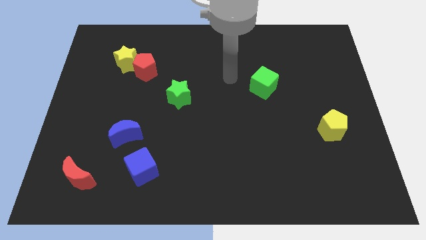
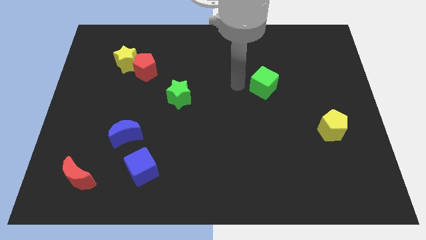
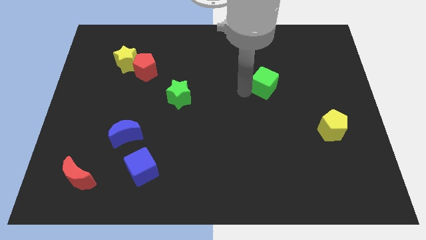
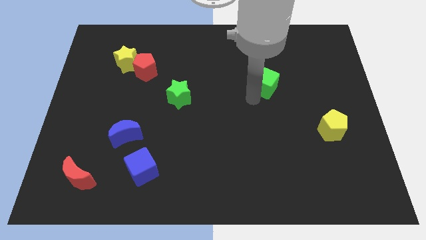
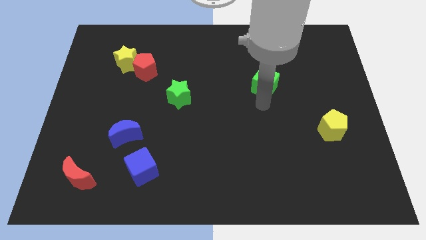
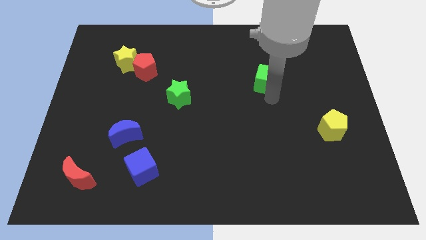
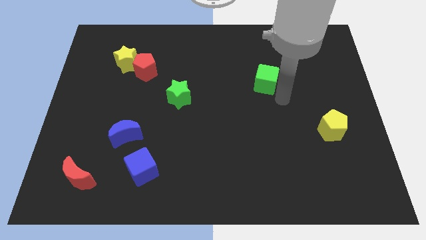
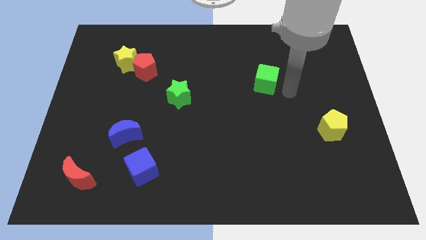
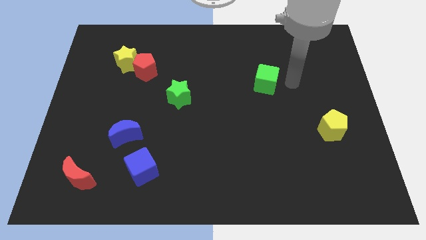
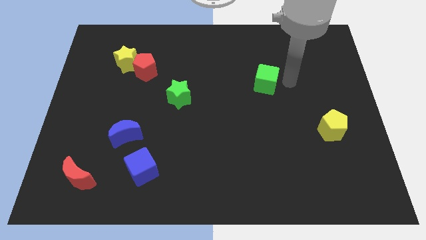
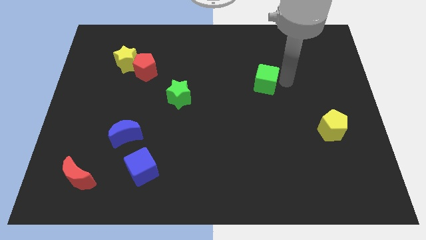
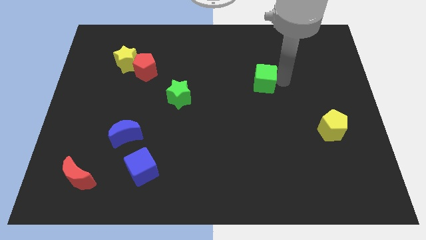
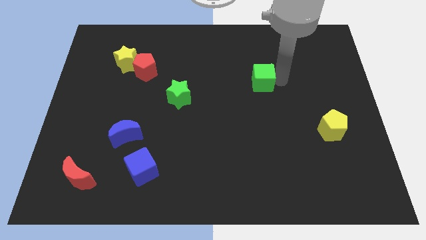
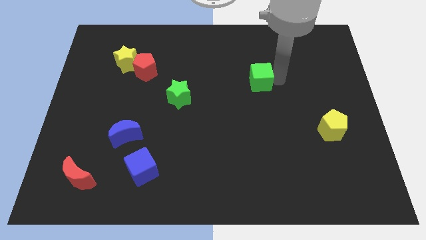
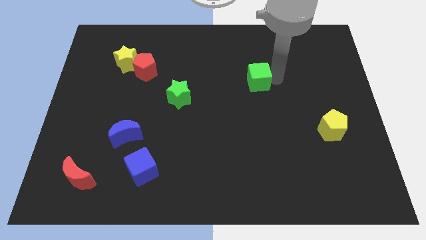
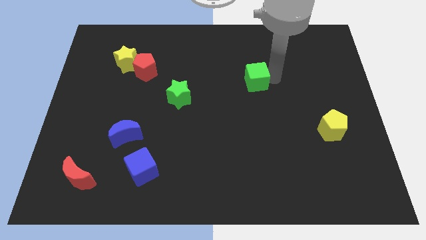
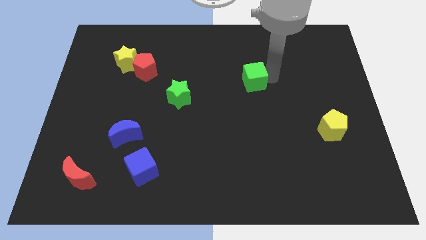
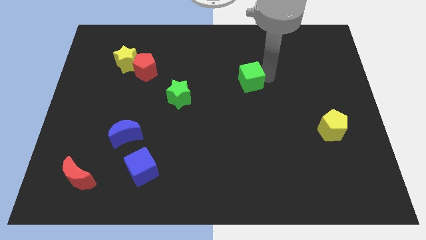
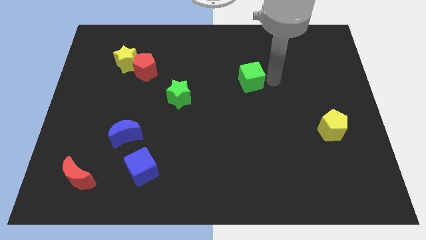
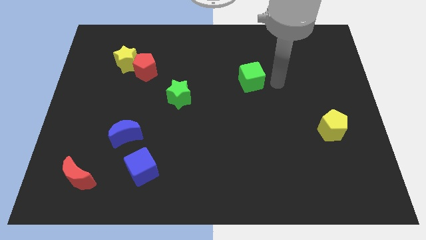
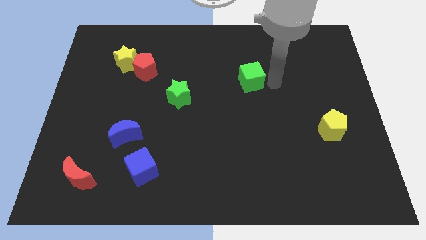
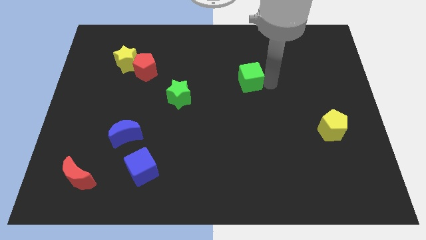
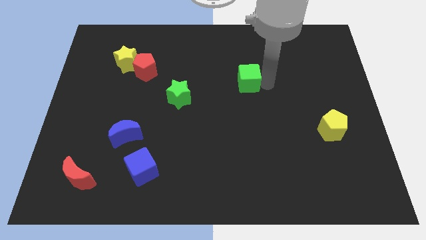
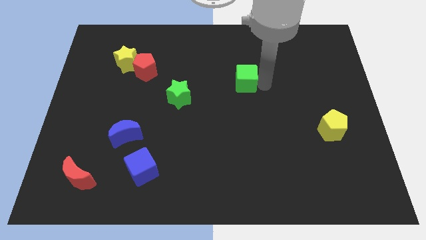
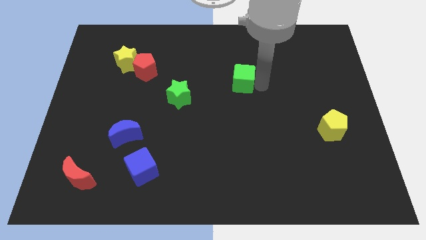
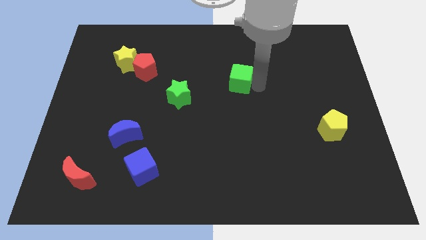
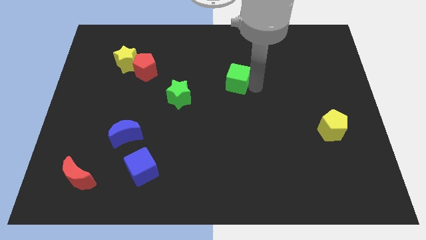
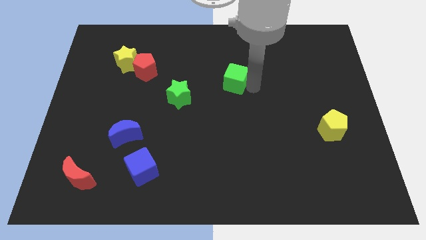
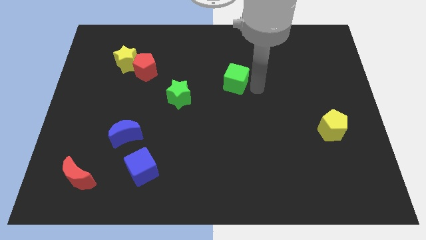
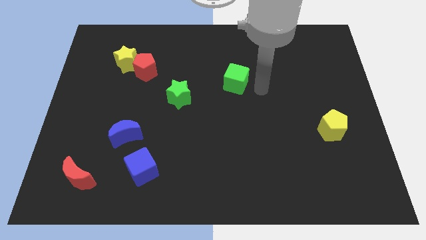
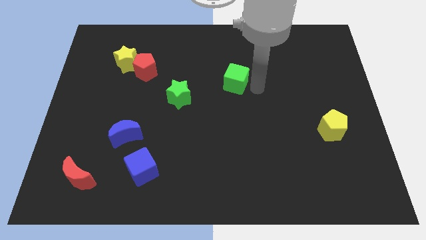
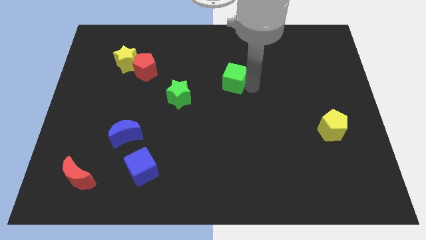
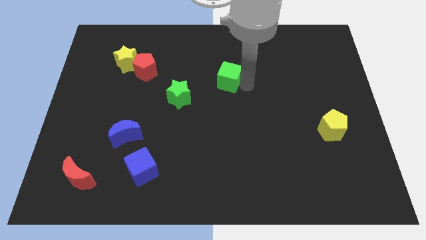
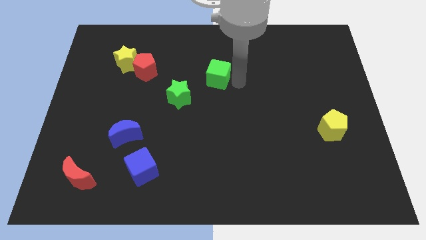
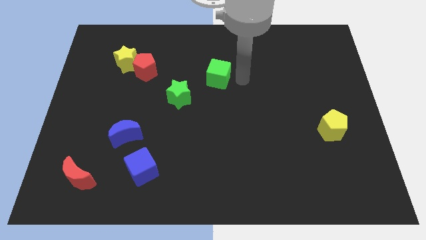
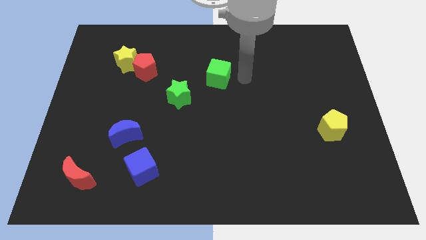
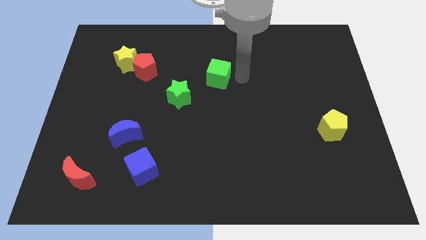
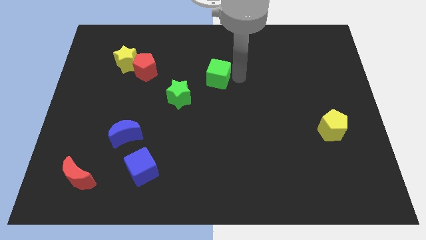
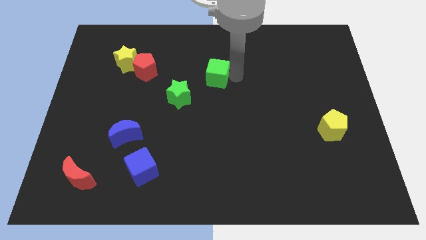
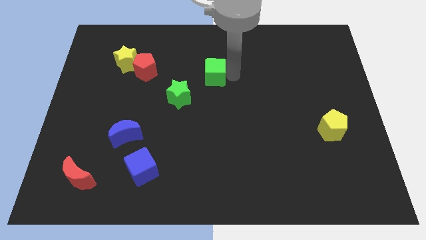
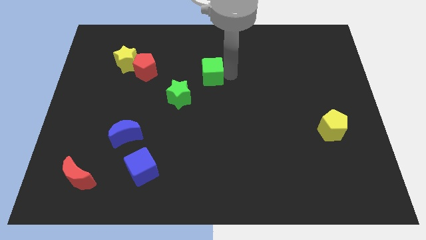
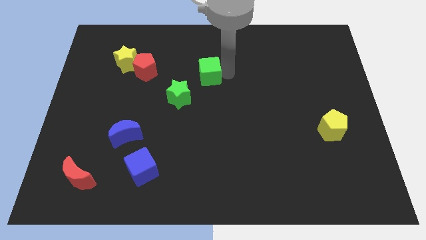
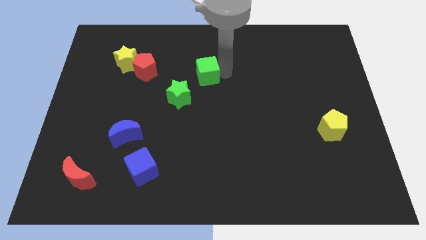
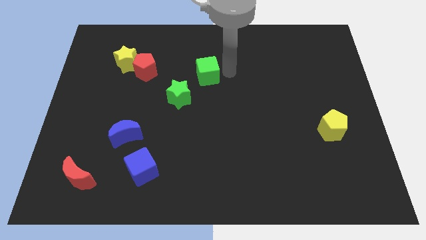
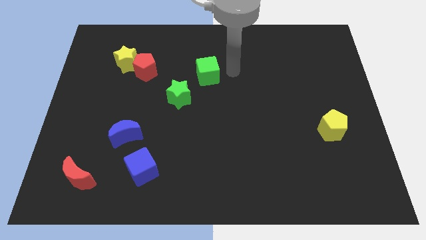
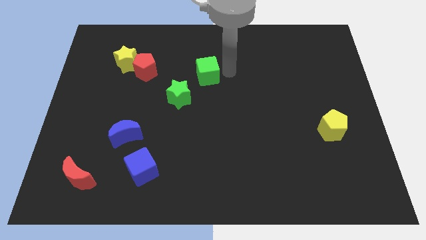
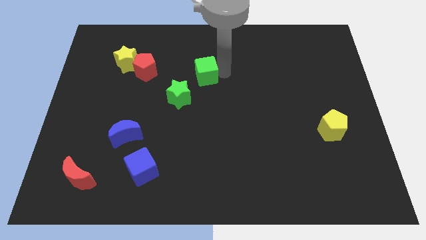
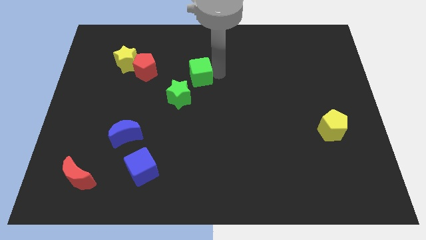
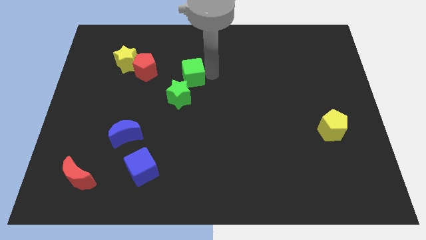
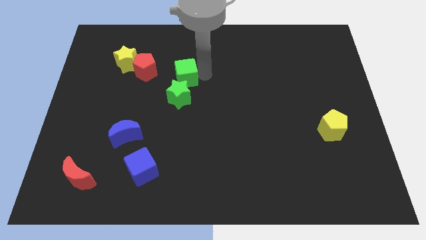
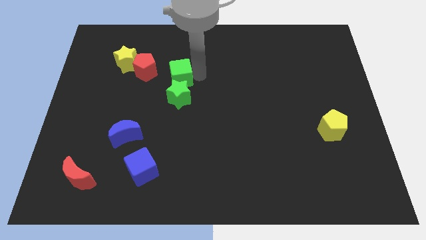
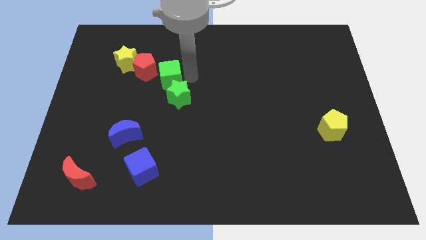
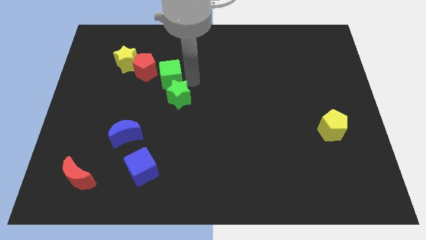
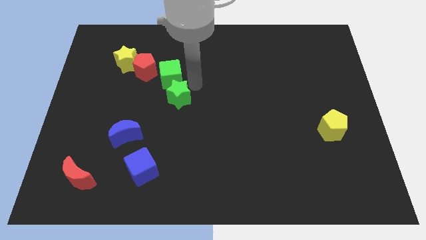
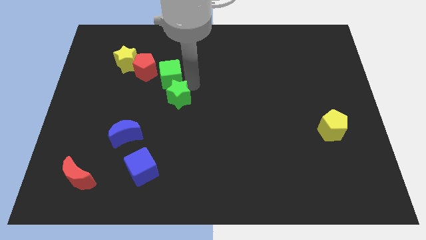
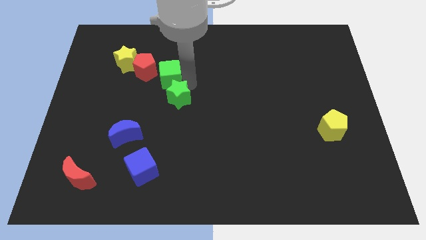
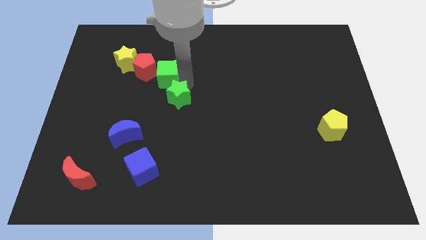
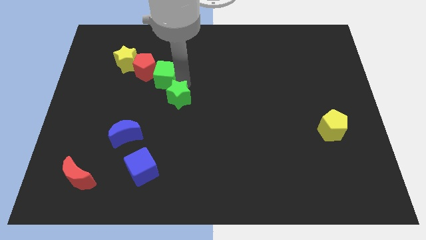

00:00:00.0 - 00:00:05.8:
put the green cube next to the red pentagon

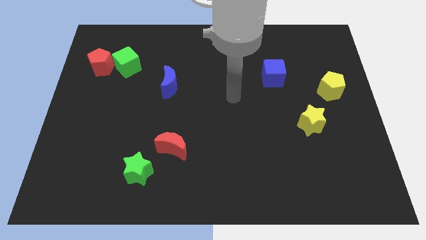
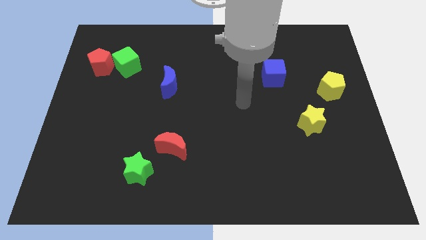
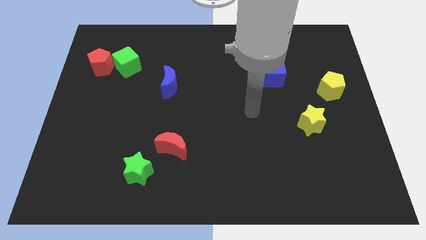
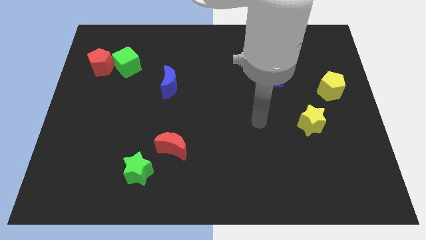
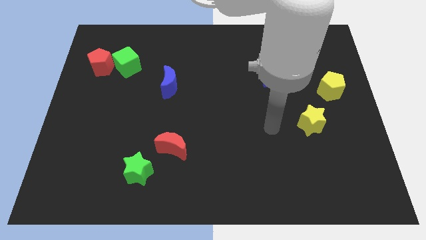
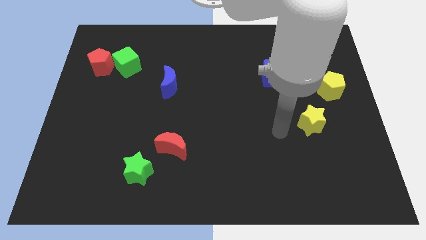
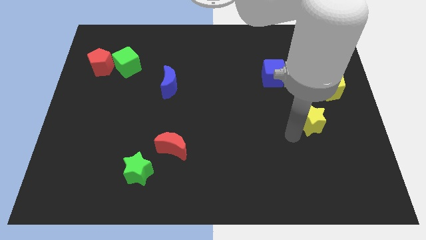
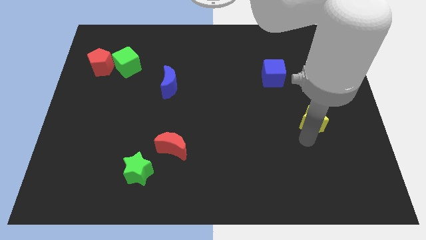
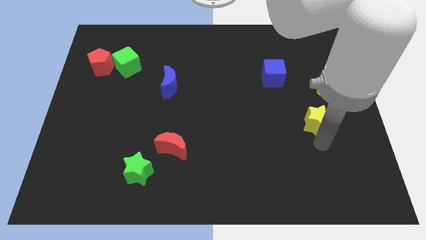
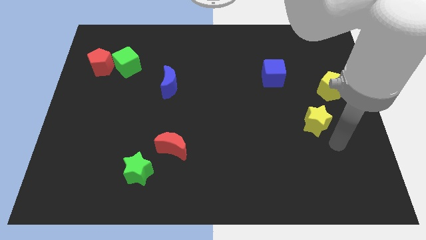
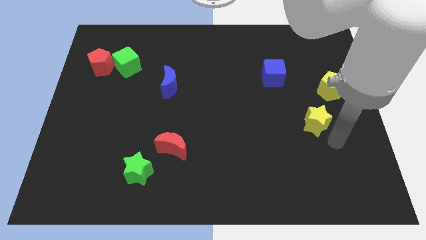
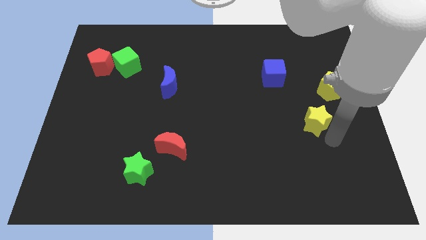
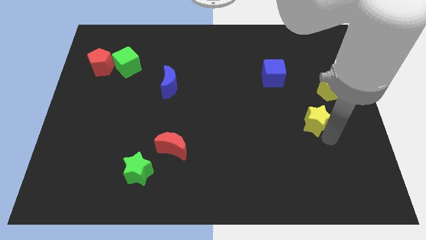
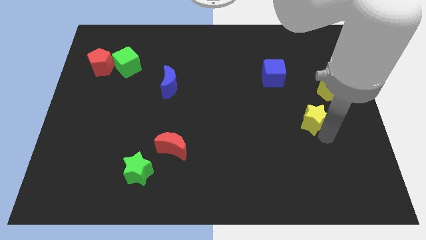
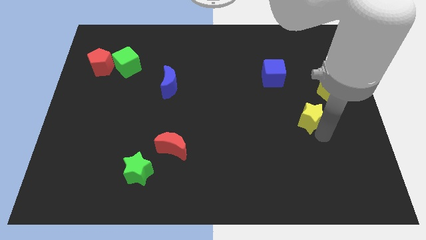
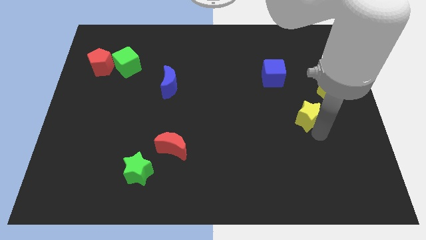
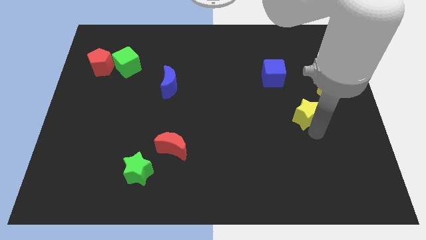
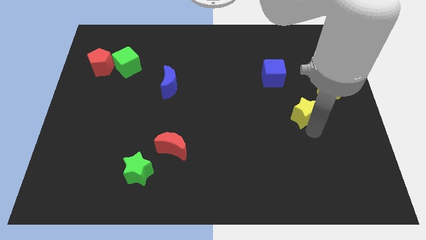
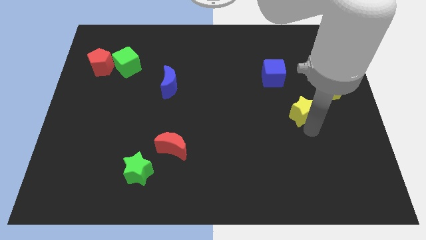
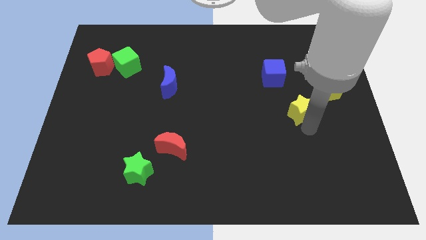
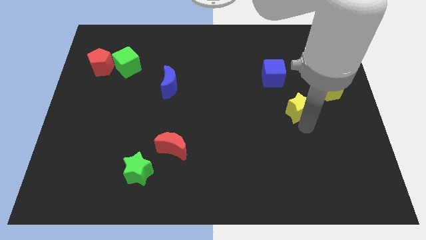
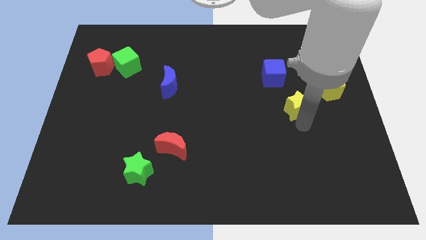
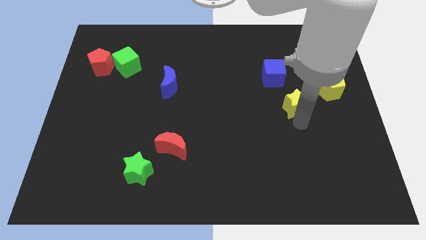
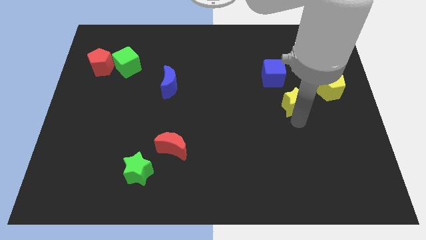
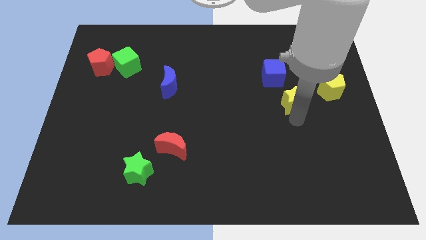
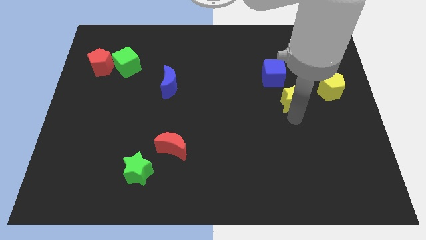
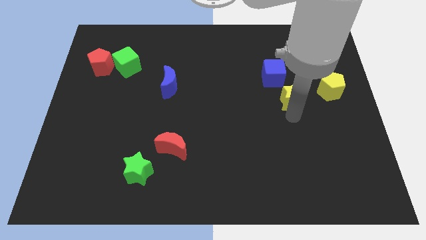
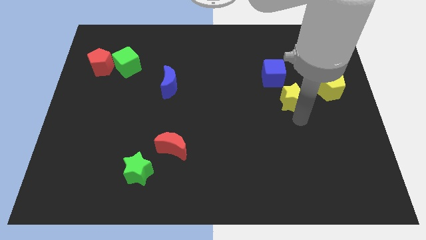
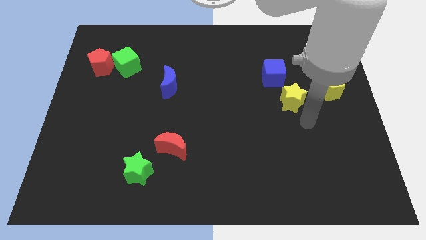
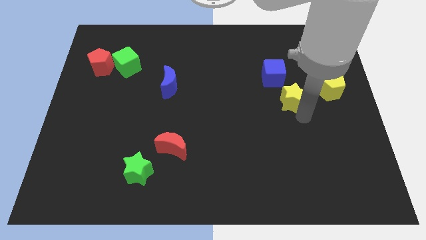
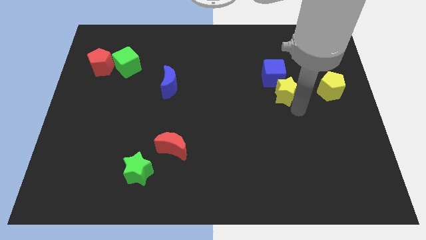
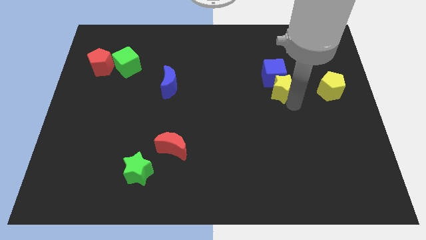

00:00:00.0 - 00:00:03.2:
move the yellow star towards the blue cube
